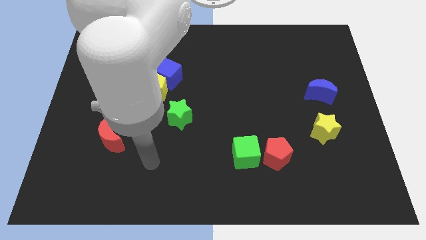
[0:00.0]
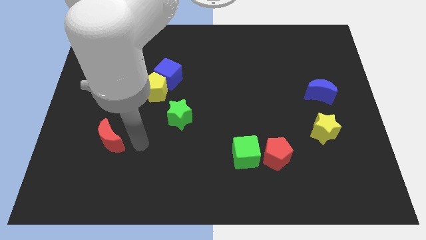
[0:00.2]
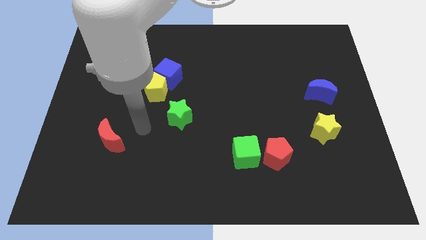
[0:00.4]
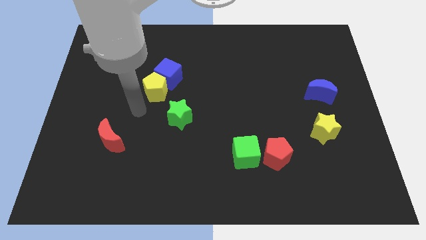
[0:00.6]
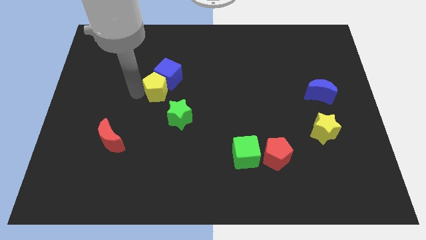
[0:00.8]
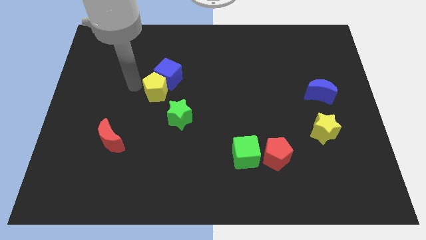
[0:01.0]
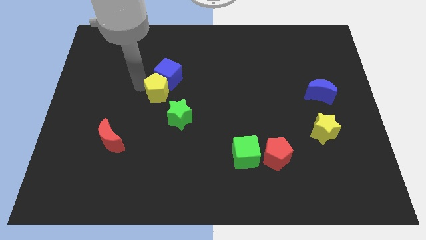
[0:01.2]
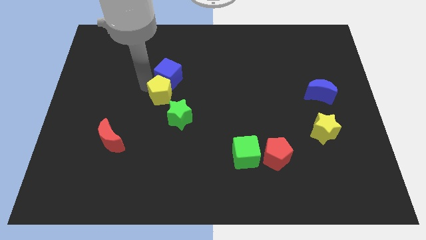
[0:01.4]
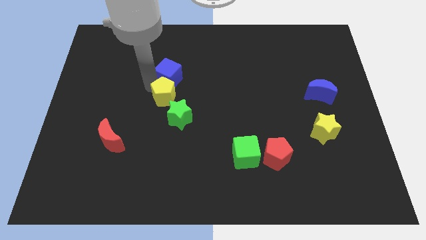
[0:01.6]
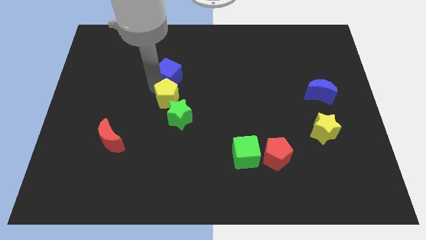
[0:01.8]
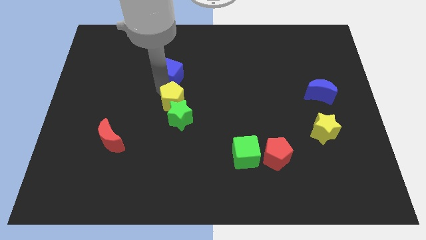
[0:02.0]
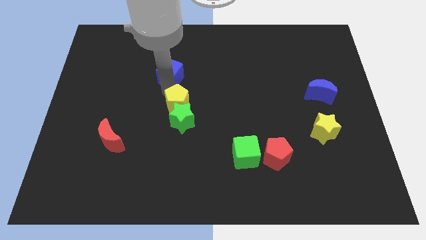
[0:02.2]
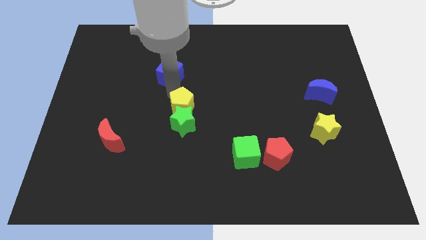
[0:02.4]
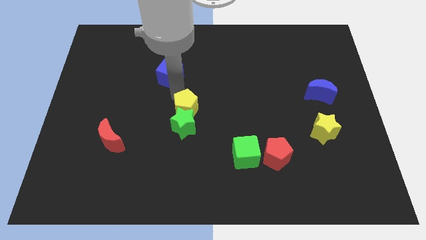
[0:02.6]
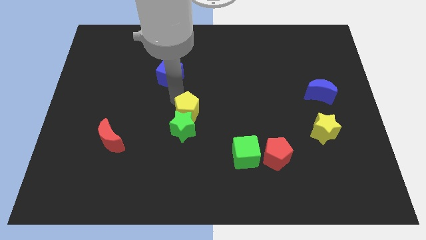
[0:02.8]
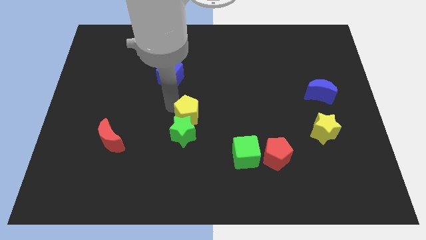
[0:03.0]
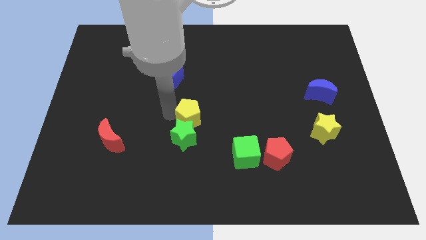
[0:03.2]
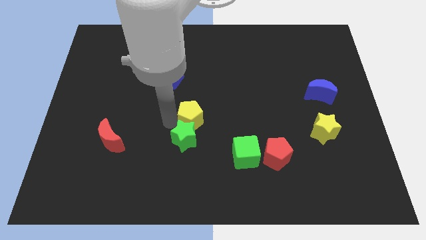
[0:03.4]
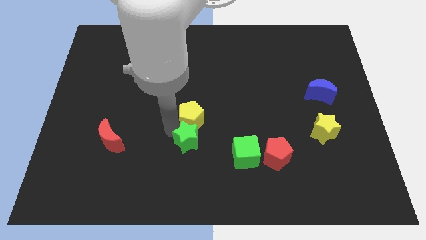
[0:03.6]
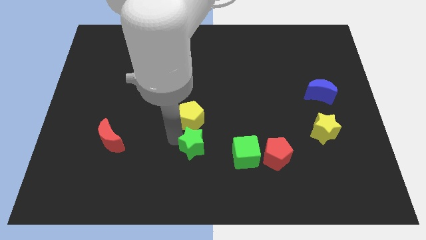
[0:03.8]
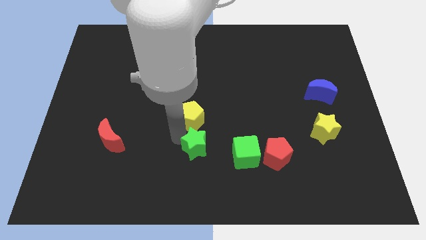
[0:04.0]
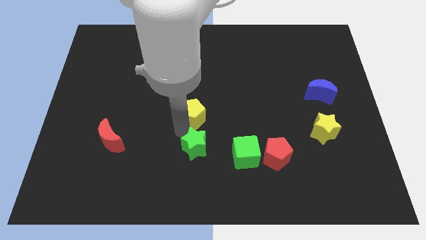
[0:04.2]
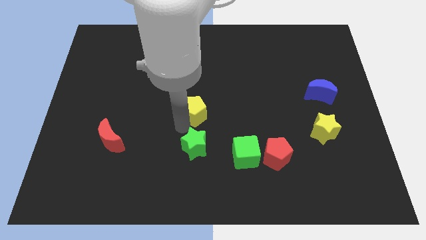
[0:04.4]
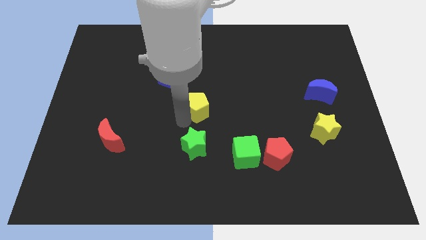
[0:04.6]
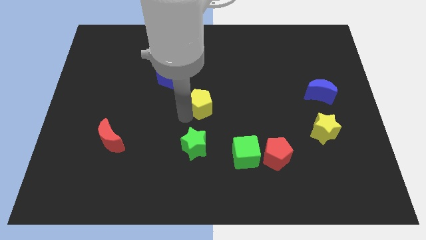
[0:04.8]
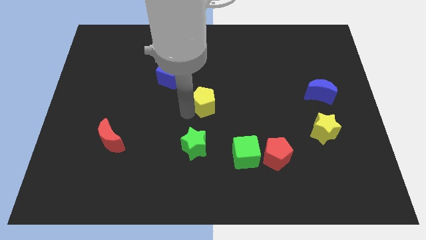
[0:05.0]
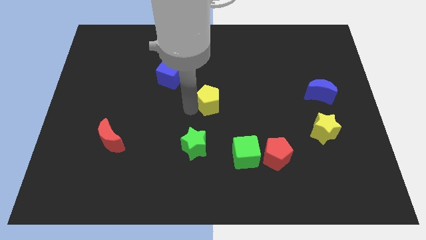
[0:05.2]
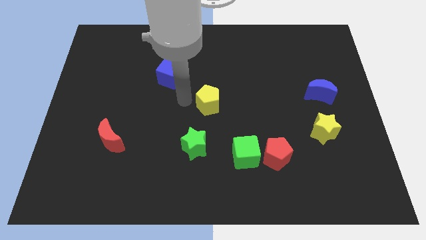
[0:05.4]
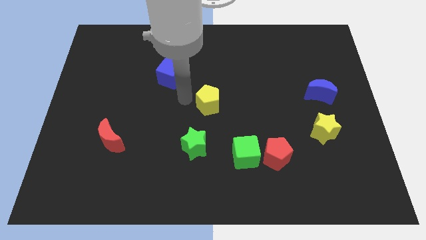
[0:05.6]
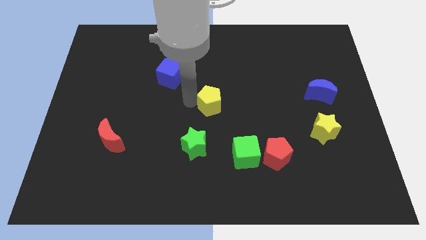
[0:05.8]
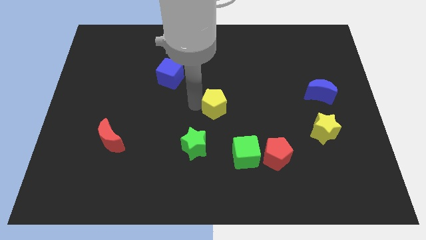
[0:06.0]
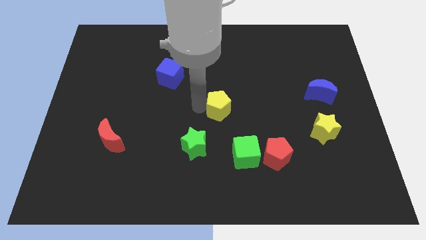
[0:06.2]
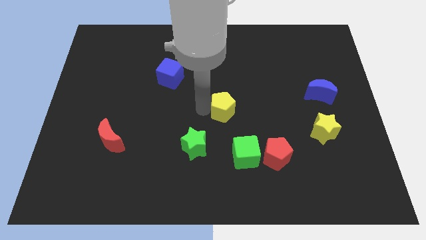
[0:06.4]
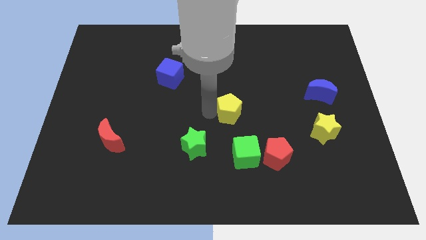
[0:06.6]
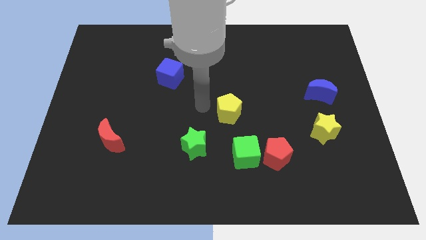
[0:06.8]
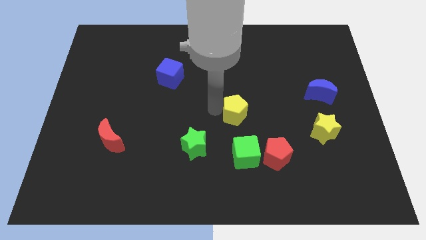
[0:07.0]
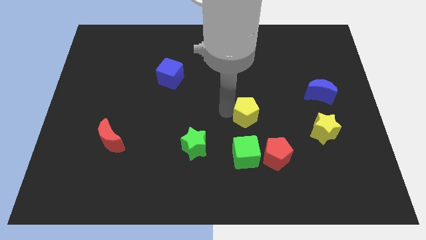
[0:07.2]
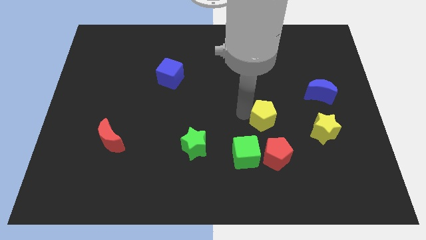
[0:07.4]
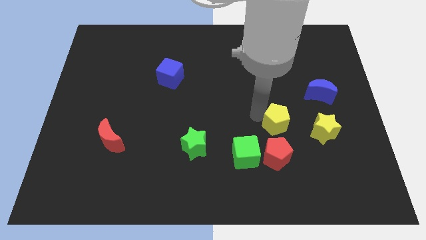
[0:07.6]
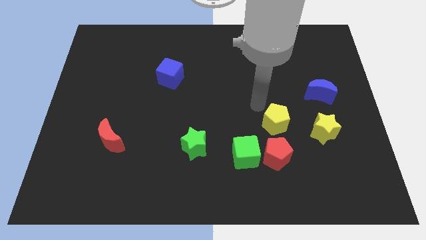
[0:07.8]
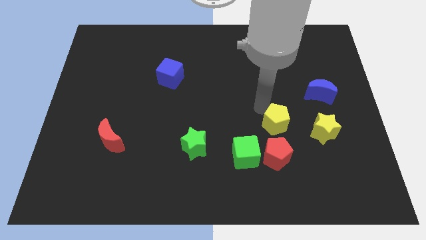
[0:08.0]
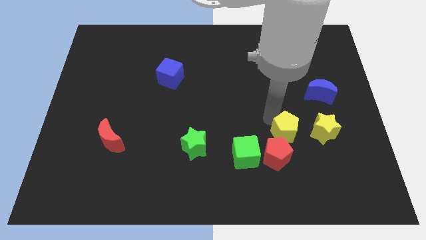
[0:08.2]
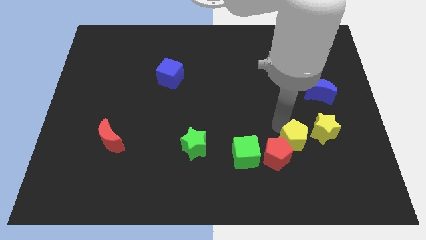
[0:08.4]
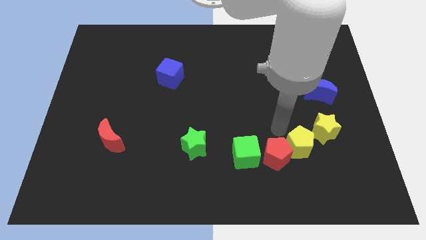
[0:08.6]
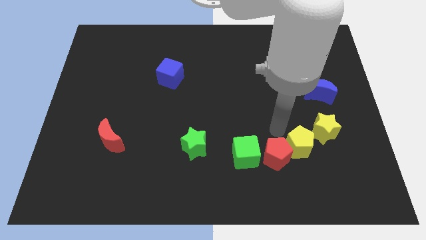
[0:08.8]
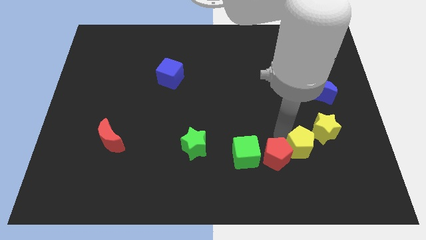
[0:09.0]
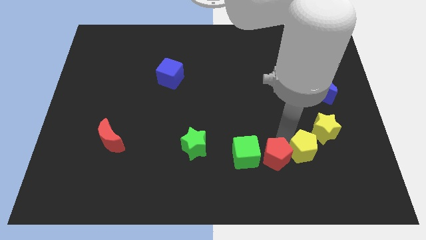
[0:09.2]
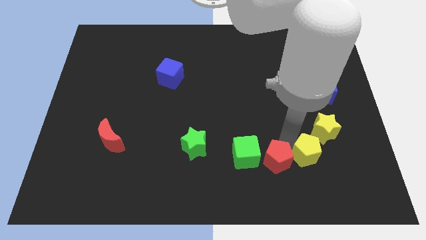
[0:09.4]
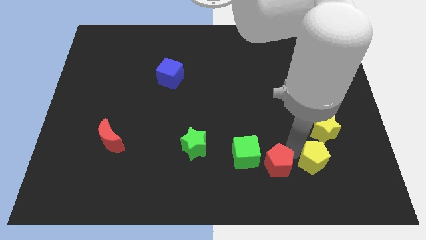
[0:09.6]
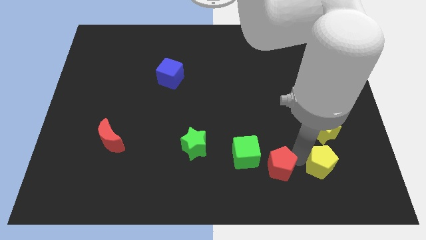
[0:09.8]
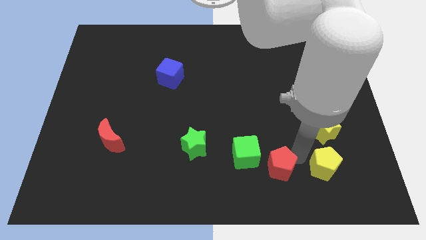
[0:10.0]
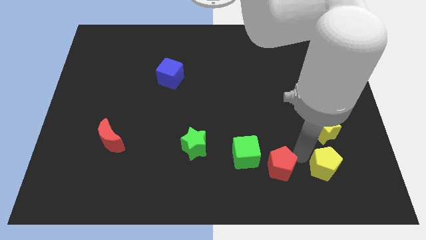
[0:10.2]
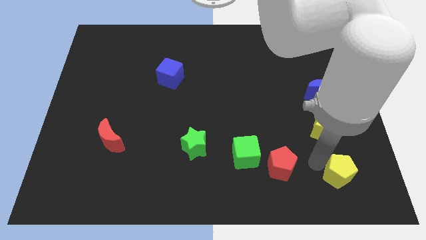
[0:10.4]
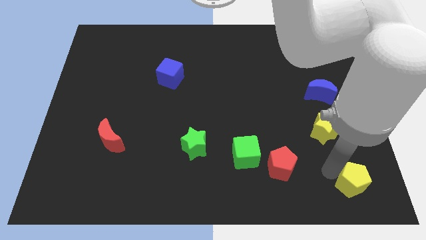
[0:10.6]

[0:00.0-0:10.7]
put the yellow pentagon to the bottom right corner
